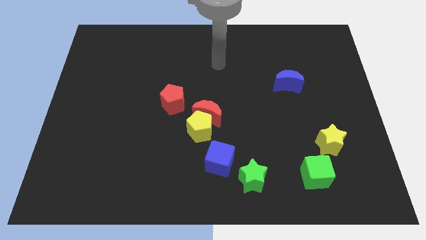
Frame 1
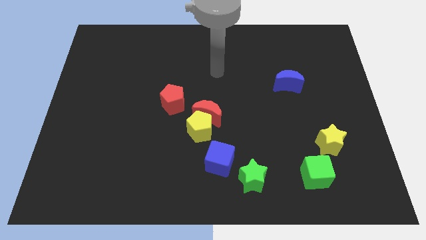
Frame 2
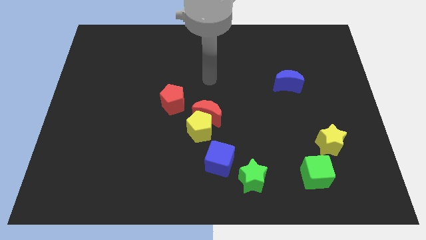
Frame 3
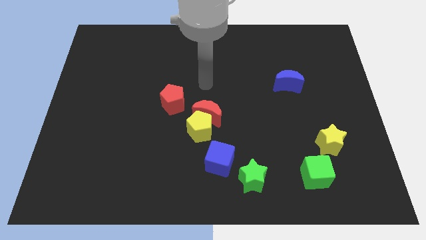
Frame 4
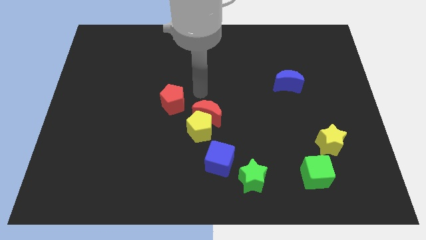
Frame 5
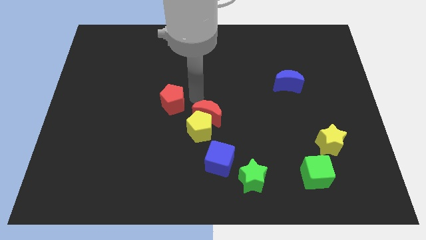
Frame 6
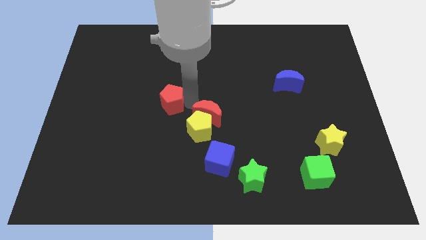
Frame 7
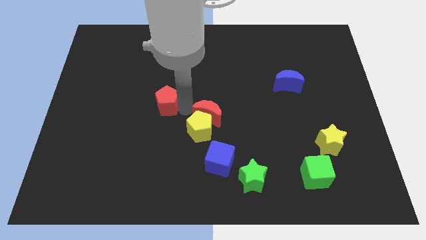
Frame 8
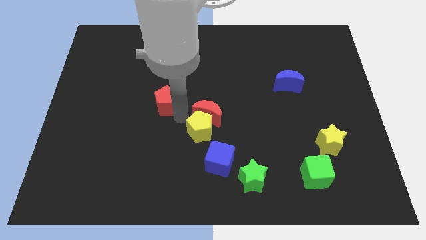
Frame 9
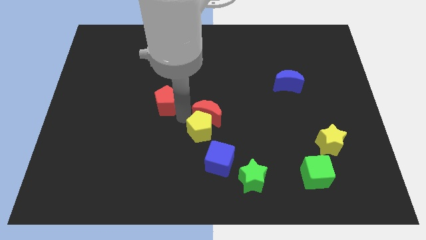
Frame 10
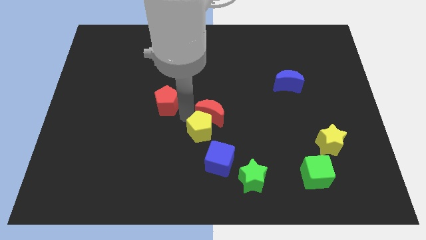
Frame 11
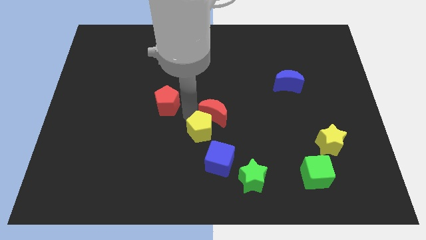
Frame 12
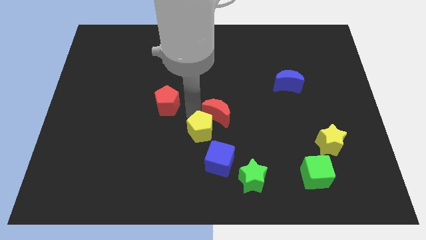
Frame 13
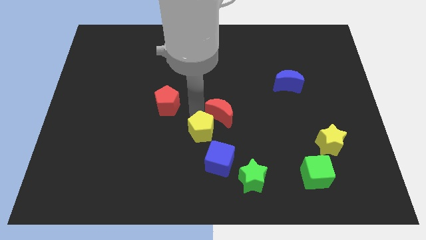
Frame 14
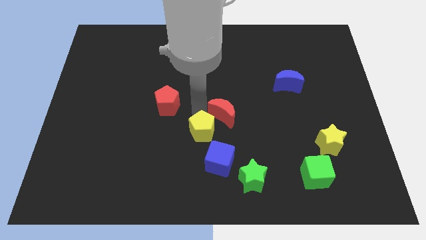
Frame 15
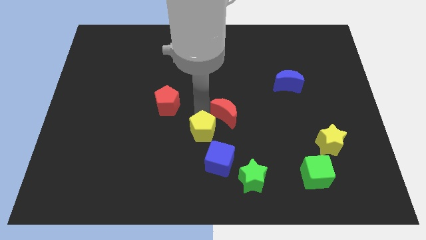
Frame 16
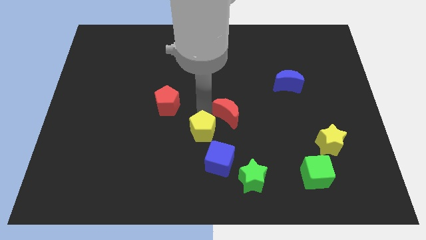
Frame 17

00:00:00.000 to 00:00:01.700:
separate the red moon from the yellow pentagon and red pentagon

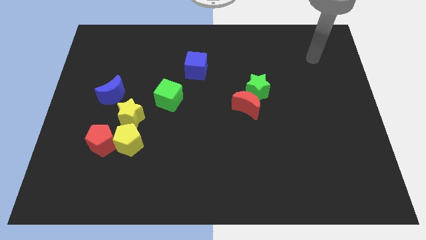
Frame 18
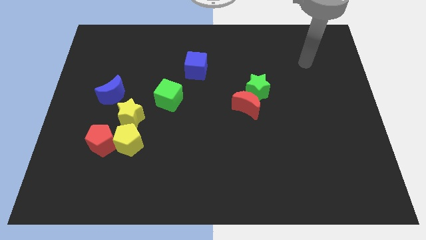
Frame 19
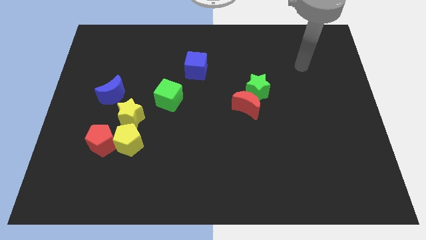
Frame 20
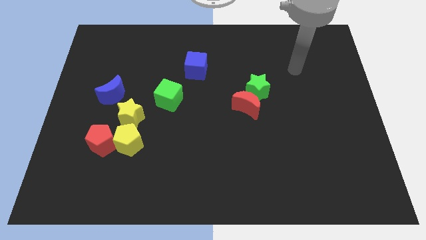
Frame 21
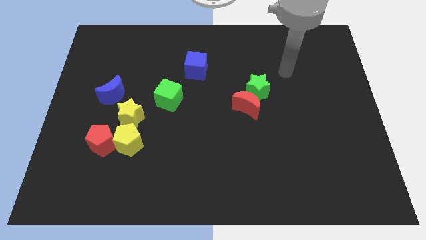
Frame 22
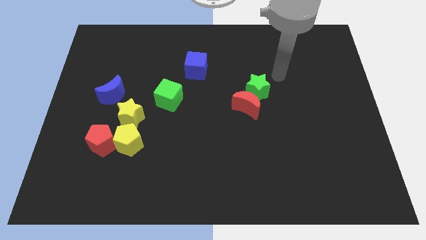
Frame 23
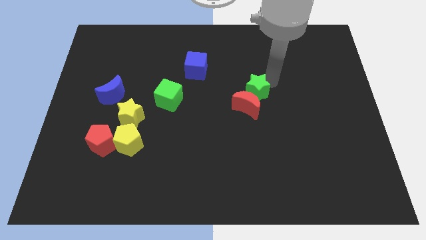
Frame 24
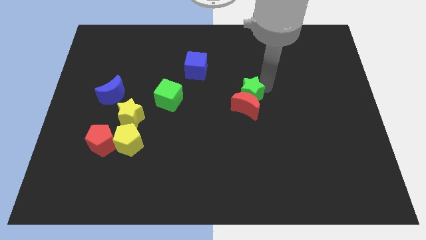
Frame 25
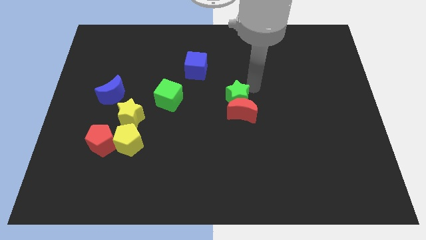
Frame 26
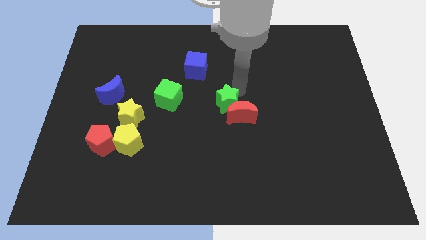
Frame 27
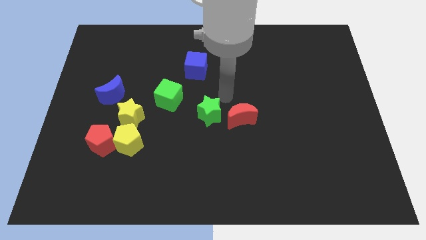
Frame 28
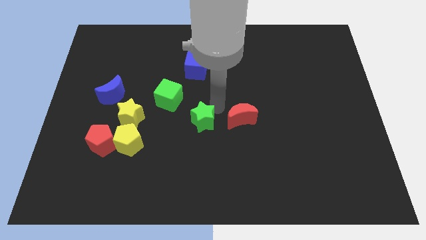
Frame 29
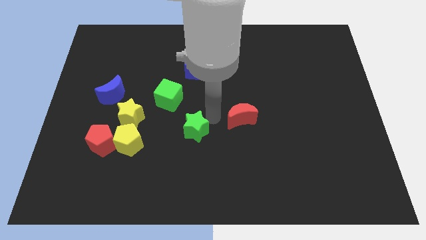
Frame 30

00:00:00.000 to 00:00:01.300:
pull the red moon apart from the green star

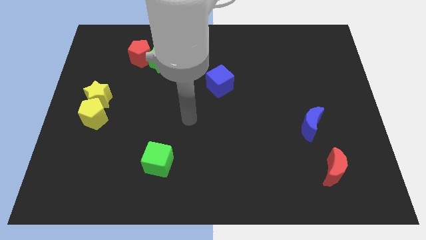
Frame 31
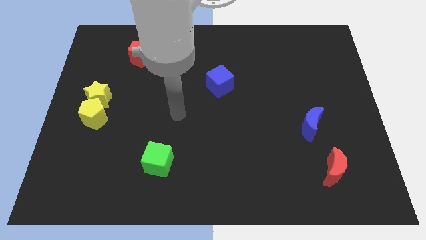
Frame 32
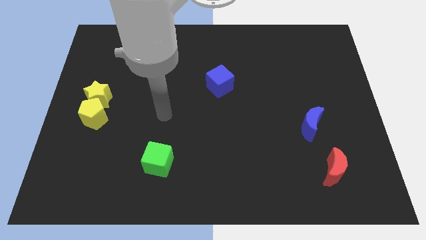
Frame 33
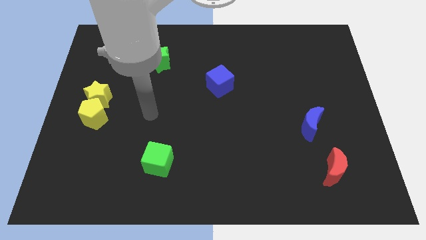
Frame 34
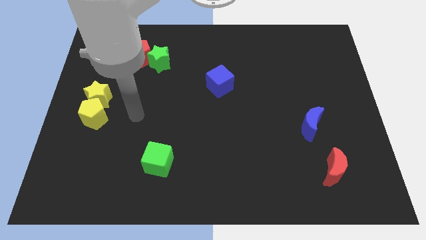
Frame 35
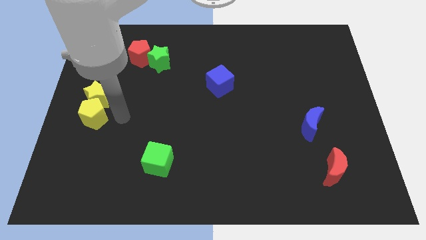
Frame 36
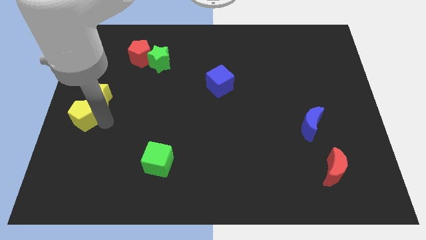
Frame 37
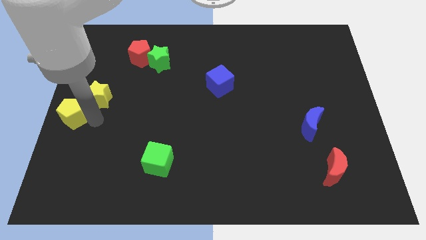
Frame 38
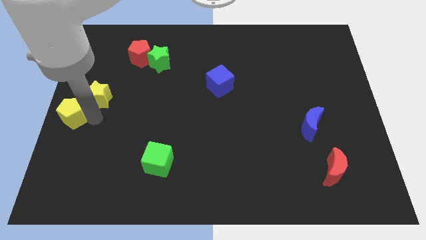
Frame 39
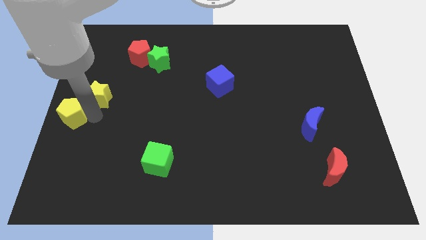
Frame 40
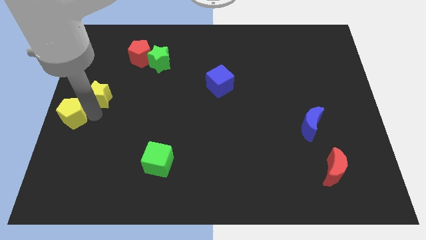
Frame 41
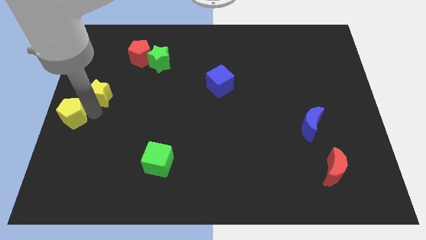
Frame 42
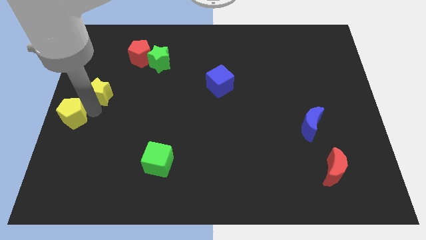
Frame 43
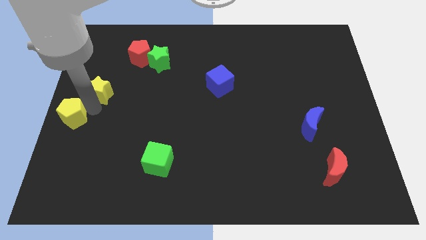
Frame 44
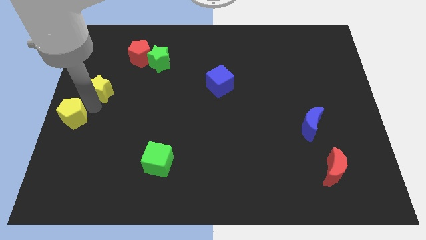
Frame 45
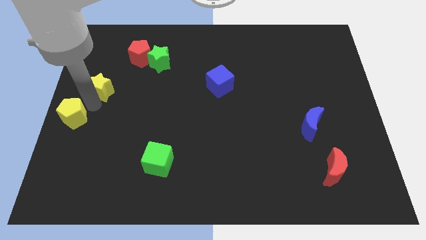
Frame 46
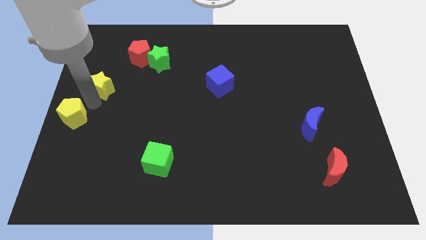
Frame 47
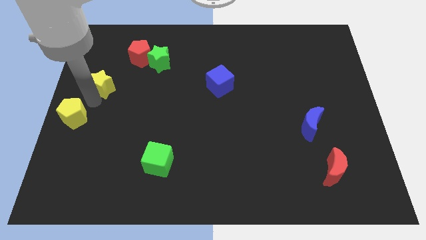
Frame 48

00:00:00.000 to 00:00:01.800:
separate the yellow star from the yellow pentagon

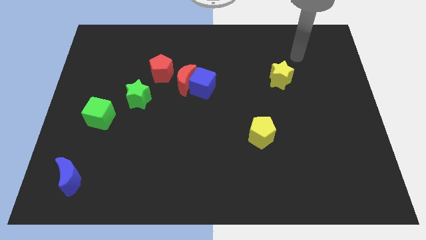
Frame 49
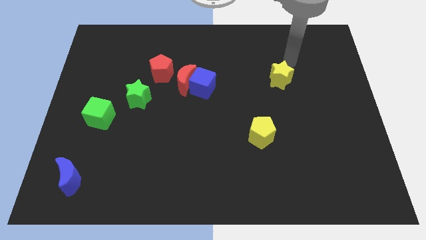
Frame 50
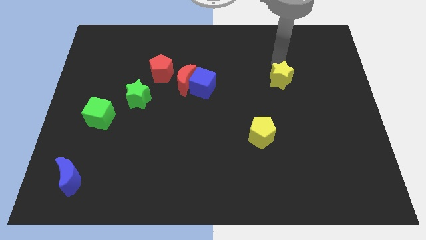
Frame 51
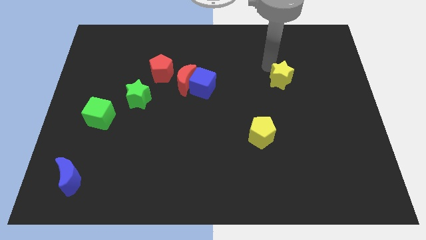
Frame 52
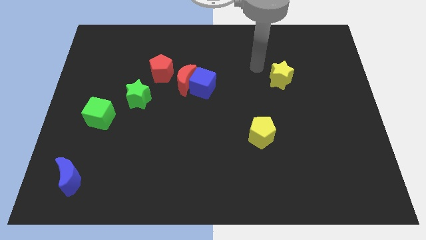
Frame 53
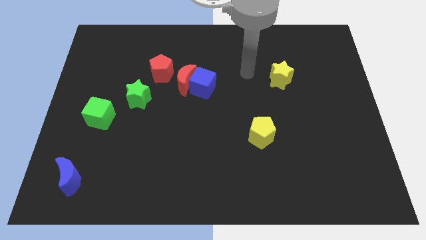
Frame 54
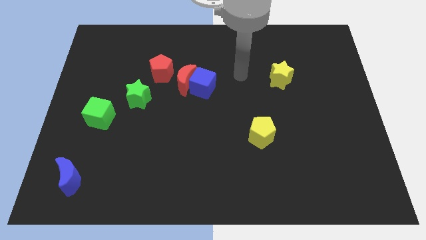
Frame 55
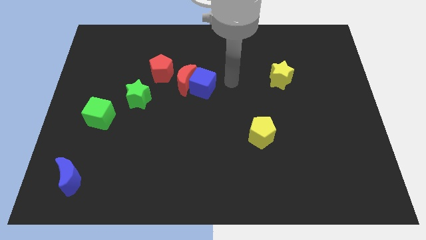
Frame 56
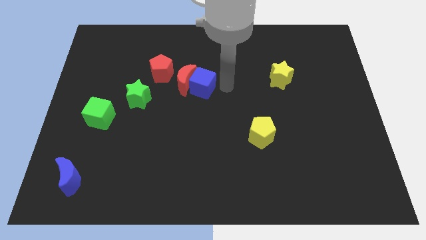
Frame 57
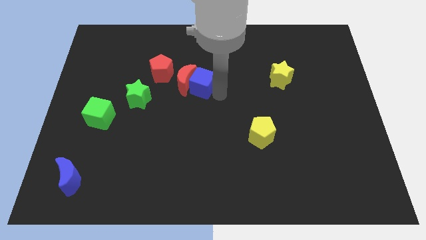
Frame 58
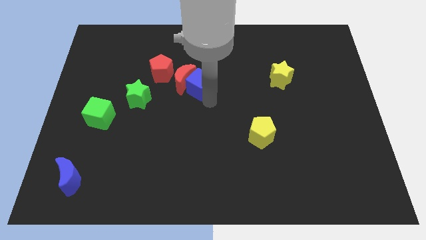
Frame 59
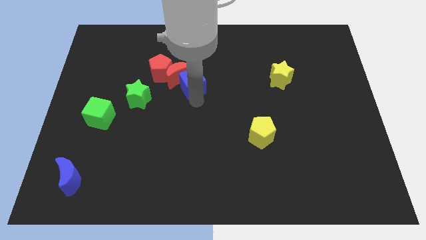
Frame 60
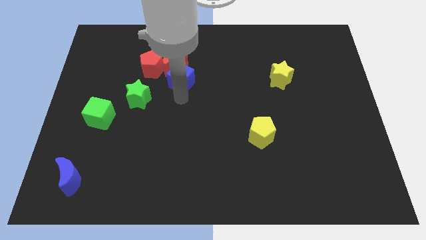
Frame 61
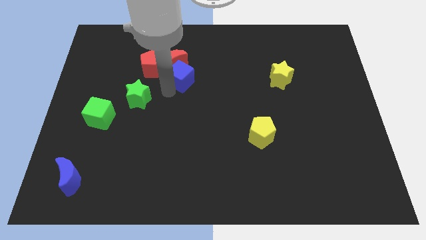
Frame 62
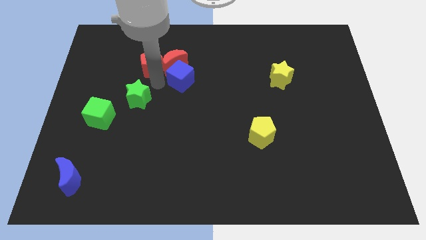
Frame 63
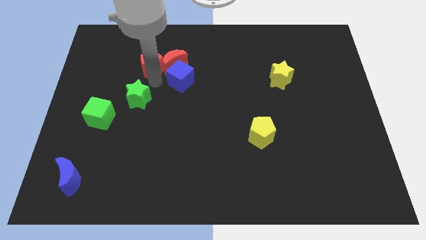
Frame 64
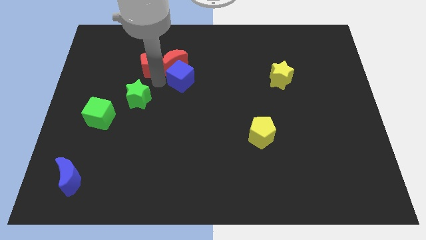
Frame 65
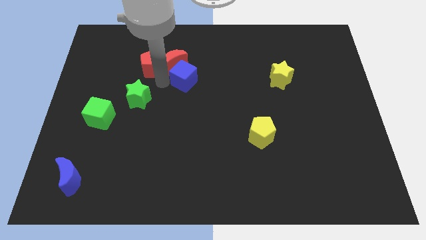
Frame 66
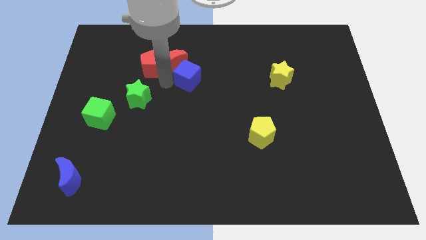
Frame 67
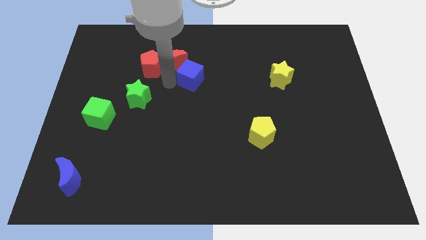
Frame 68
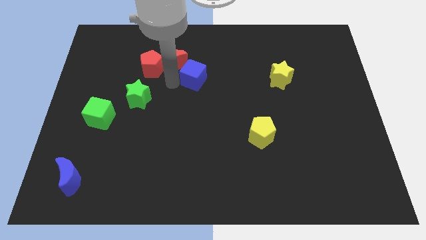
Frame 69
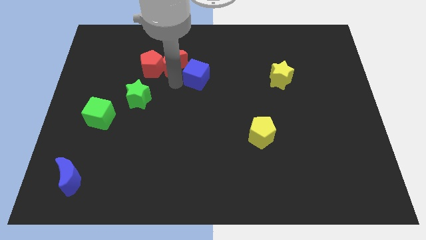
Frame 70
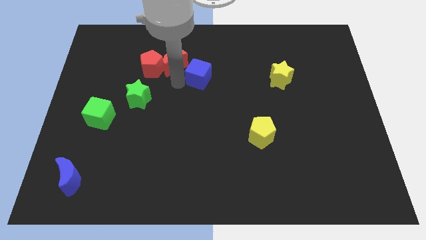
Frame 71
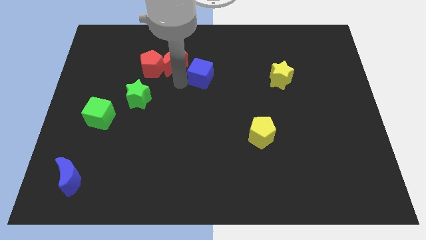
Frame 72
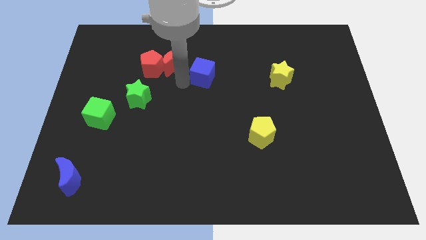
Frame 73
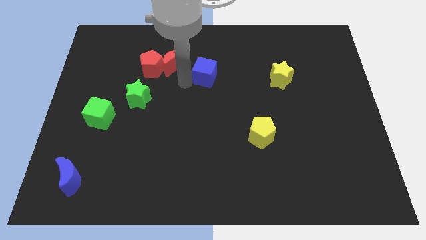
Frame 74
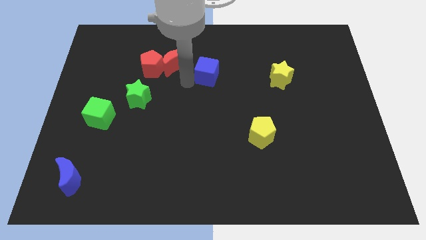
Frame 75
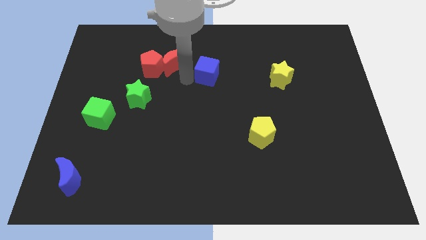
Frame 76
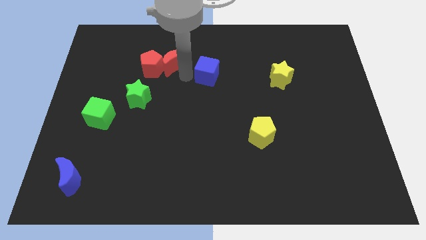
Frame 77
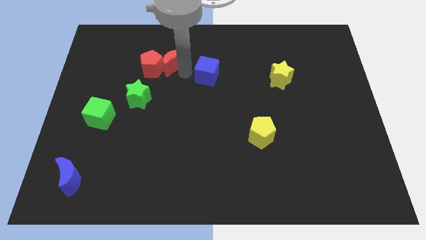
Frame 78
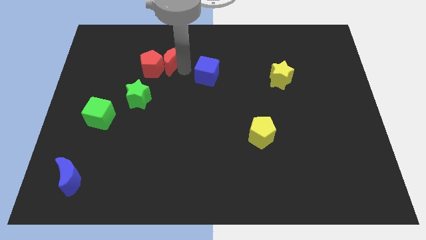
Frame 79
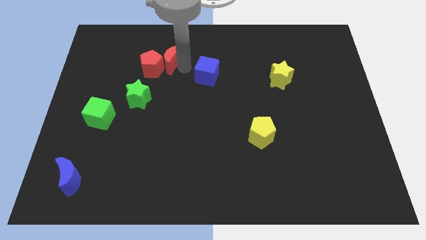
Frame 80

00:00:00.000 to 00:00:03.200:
pull the blue cube apart from the red moon

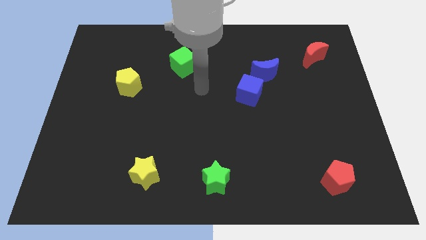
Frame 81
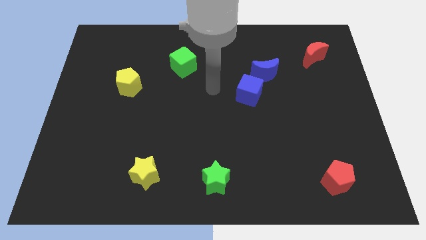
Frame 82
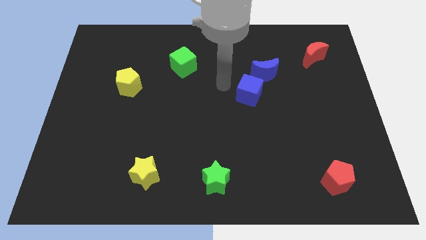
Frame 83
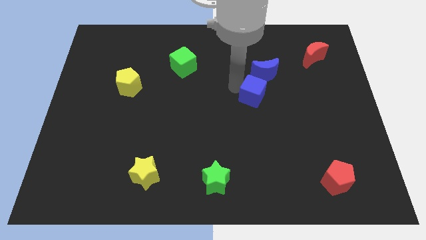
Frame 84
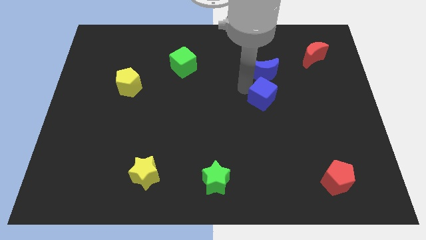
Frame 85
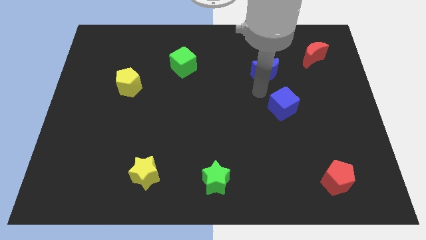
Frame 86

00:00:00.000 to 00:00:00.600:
separate the blue moon from the blue cube

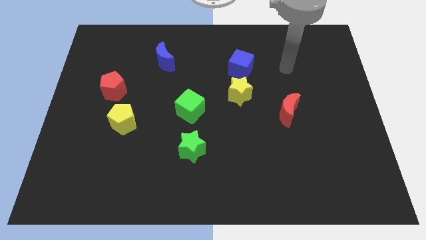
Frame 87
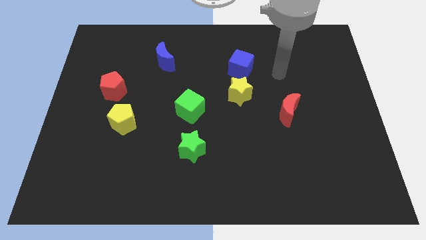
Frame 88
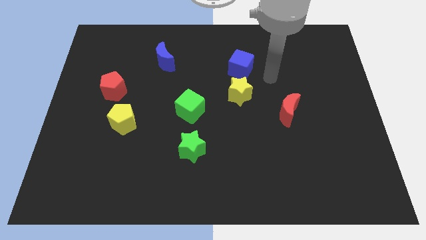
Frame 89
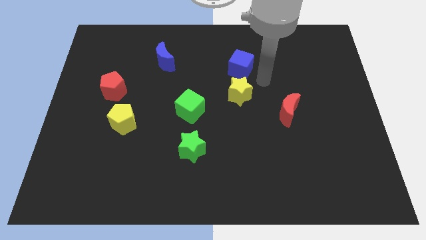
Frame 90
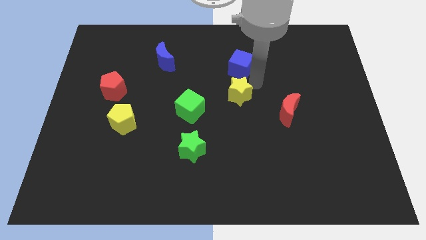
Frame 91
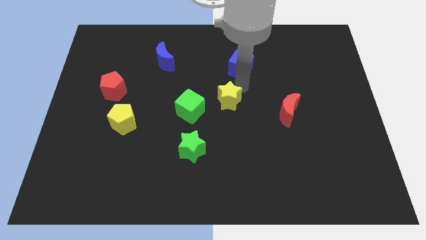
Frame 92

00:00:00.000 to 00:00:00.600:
pull the blue cube apart from the yellow star
